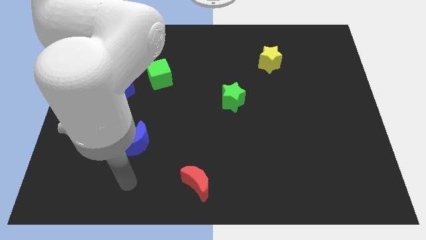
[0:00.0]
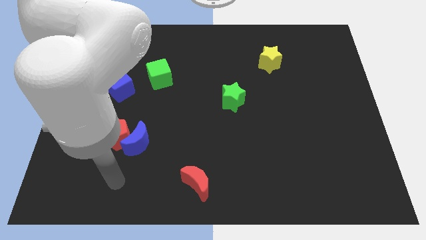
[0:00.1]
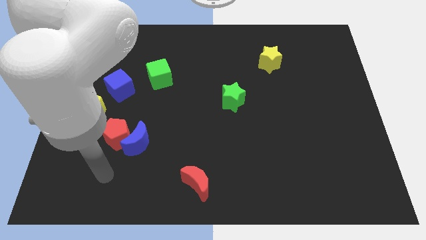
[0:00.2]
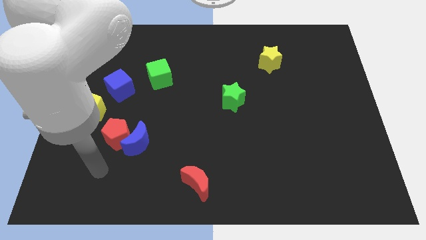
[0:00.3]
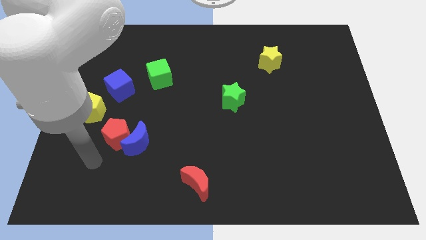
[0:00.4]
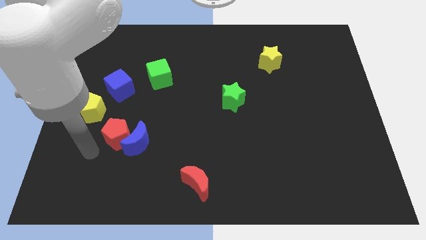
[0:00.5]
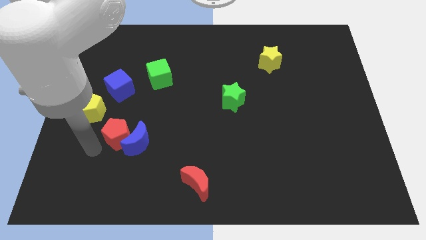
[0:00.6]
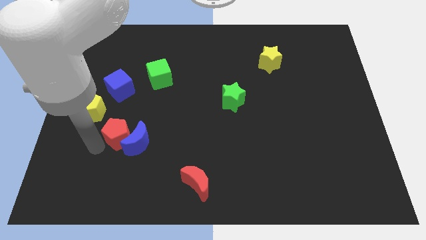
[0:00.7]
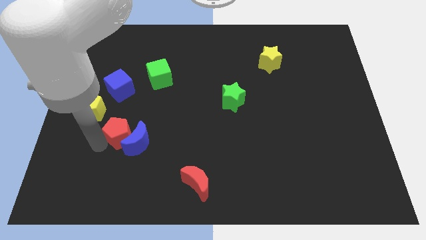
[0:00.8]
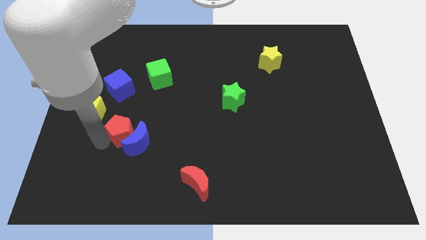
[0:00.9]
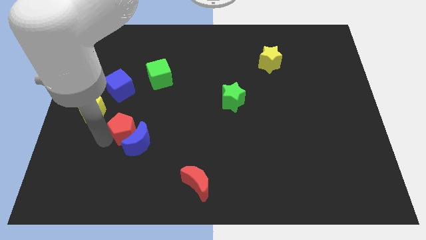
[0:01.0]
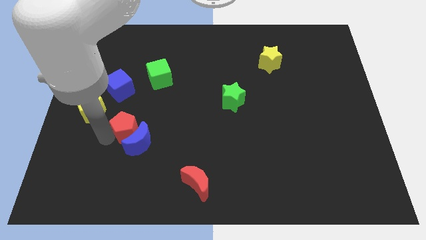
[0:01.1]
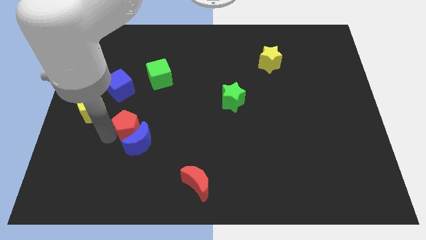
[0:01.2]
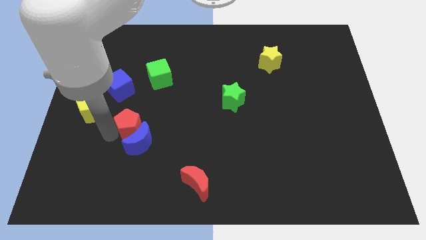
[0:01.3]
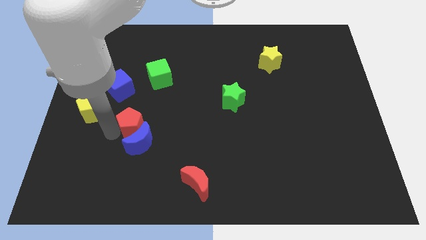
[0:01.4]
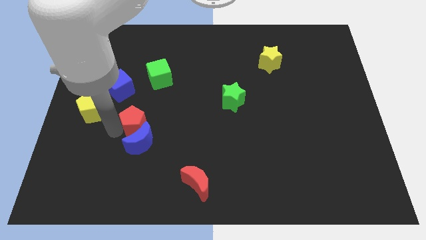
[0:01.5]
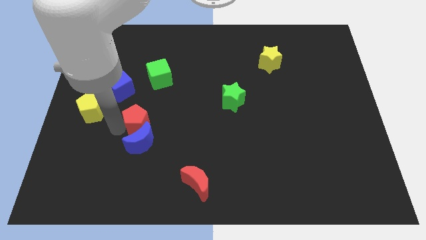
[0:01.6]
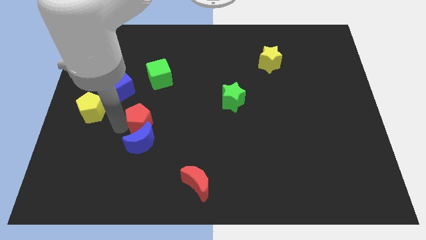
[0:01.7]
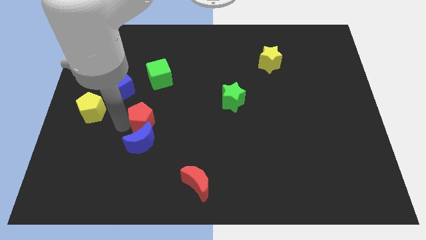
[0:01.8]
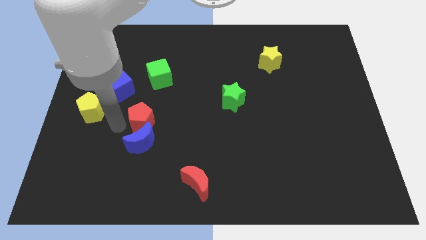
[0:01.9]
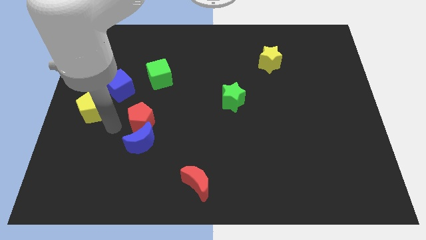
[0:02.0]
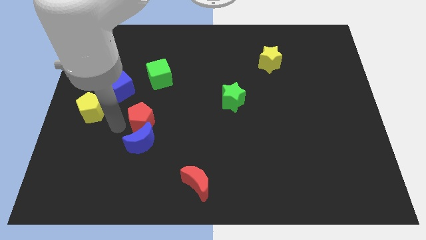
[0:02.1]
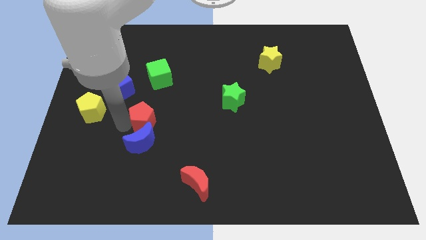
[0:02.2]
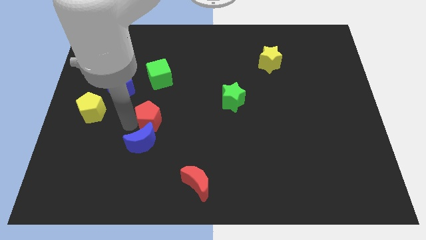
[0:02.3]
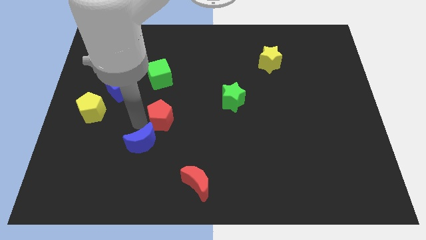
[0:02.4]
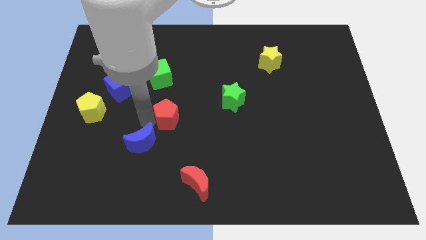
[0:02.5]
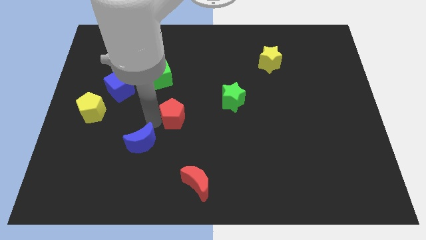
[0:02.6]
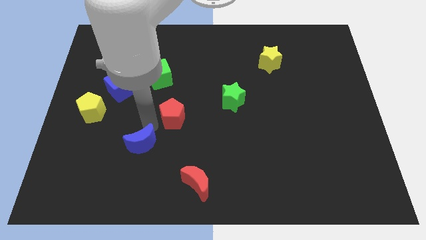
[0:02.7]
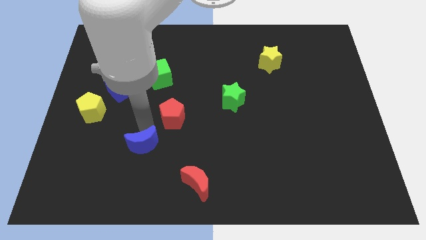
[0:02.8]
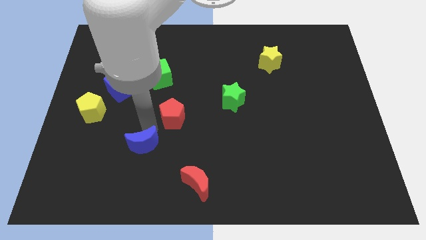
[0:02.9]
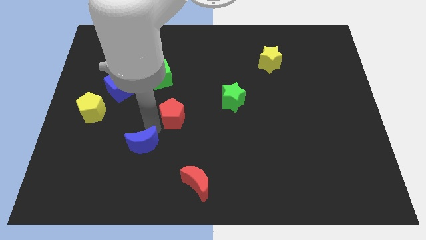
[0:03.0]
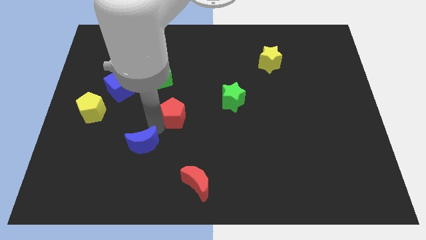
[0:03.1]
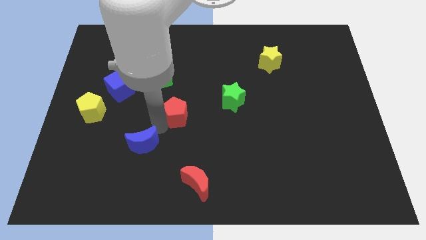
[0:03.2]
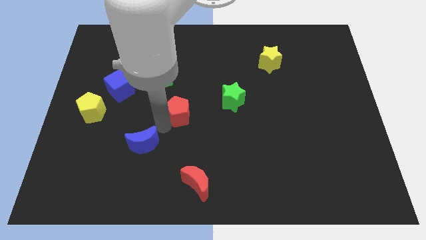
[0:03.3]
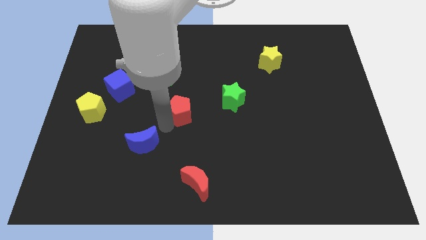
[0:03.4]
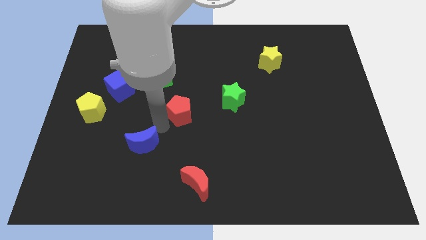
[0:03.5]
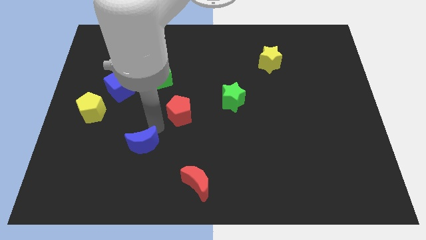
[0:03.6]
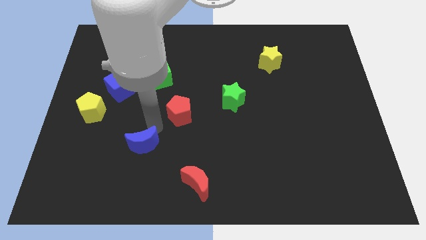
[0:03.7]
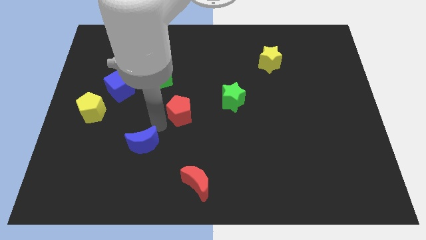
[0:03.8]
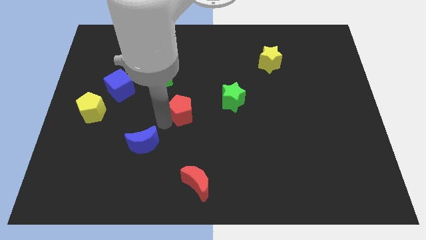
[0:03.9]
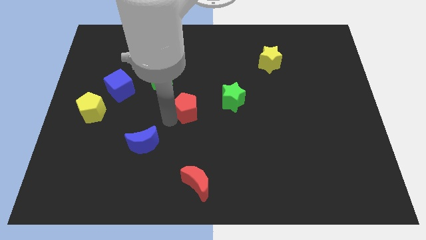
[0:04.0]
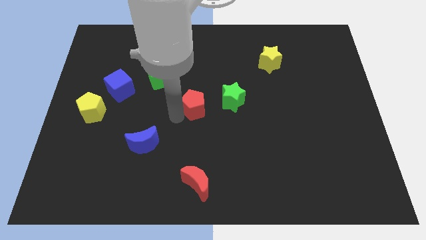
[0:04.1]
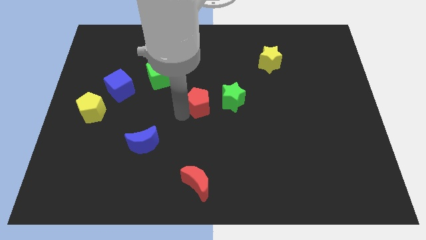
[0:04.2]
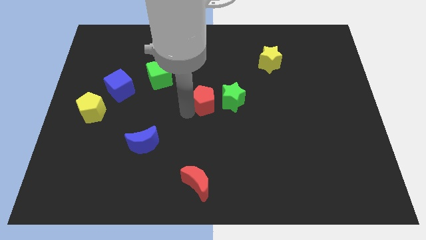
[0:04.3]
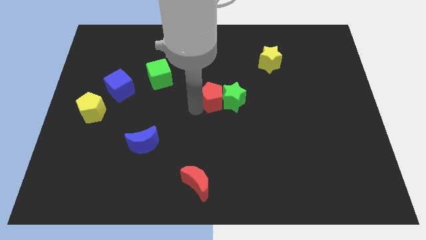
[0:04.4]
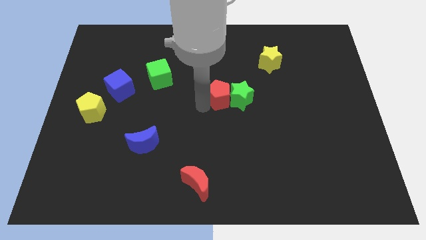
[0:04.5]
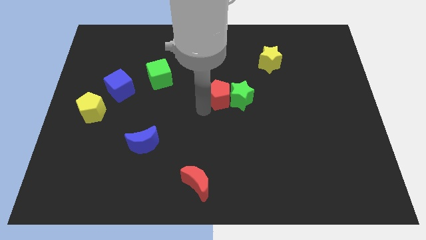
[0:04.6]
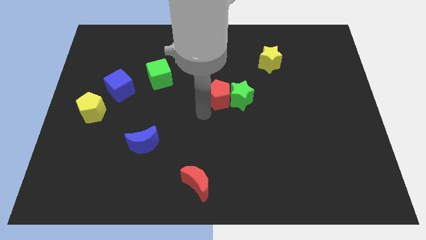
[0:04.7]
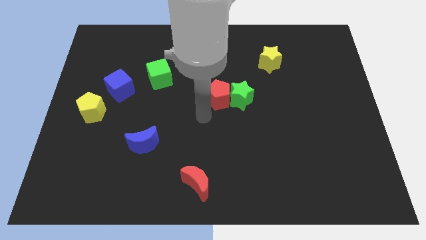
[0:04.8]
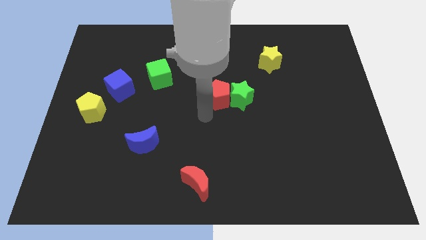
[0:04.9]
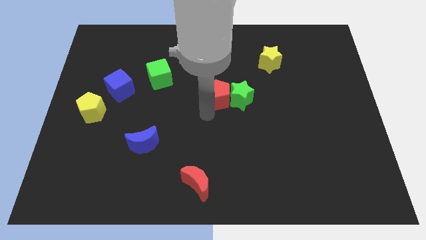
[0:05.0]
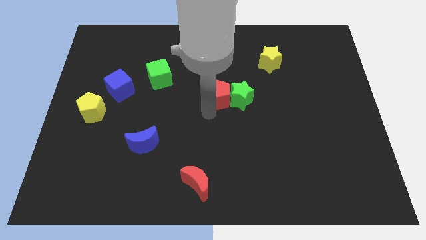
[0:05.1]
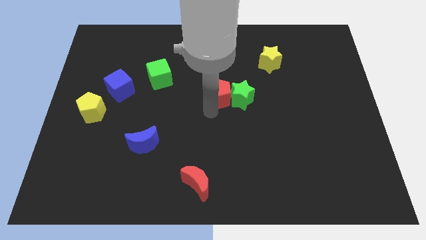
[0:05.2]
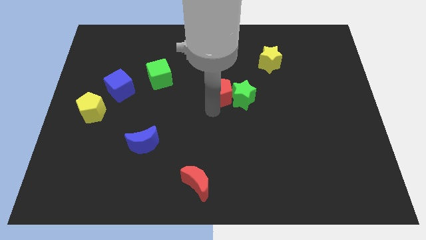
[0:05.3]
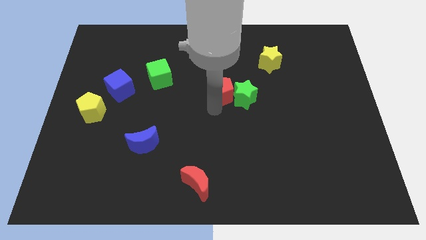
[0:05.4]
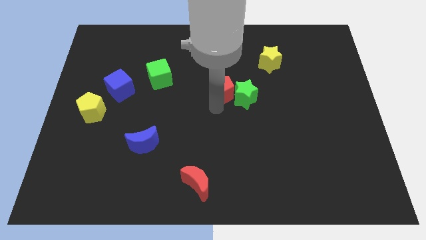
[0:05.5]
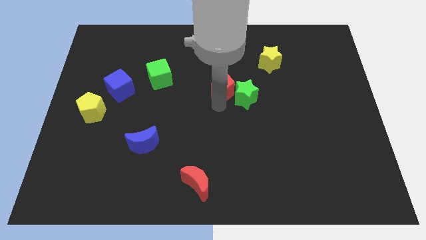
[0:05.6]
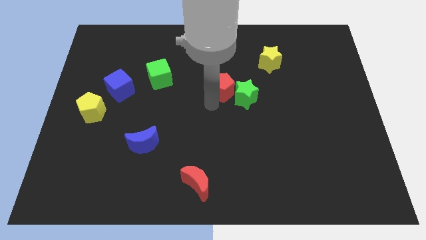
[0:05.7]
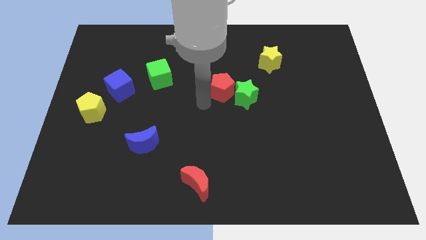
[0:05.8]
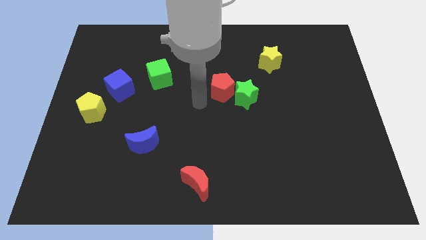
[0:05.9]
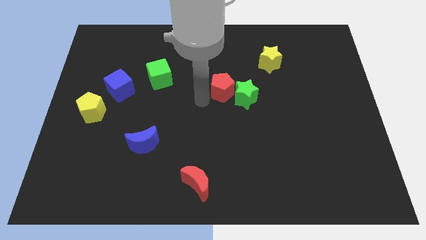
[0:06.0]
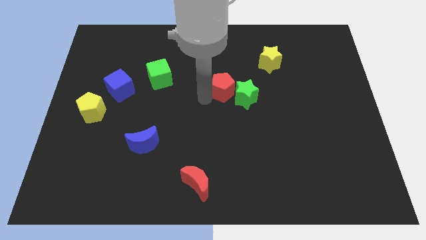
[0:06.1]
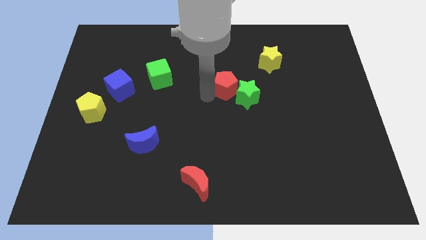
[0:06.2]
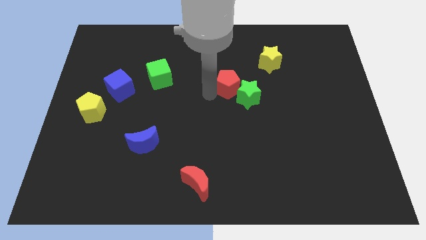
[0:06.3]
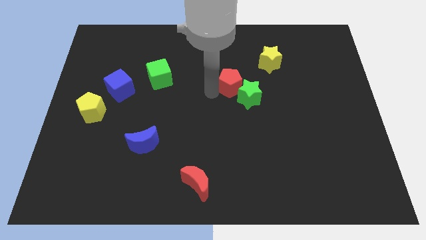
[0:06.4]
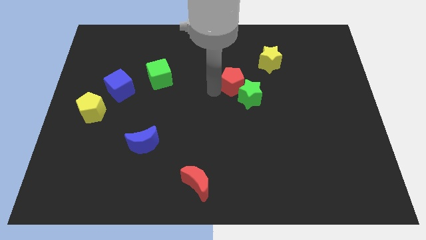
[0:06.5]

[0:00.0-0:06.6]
move the red pentagon to the bottom left of the yellow star
